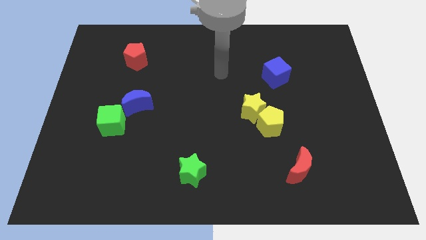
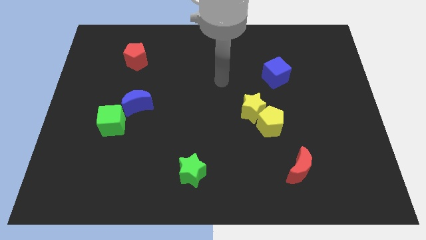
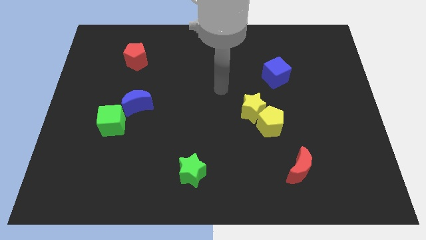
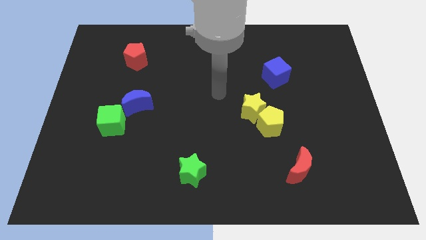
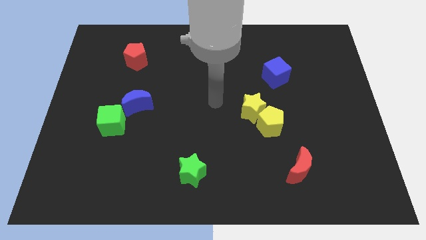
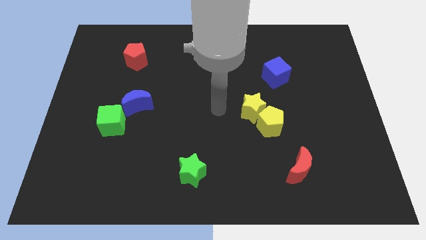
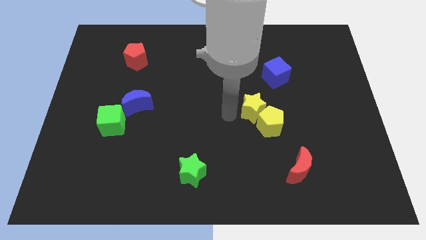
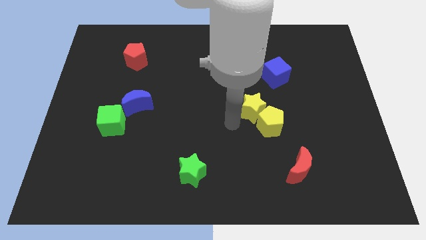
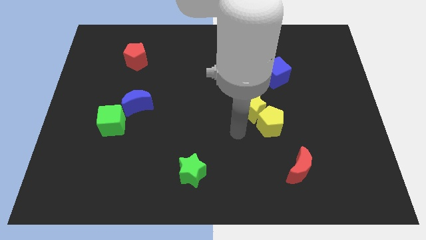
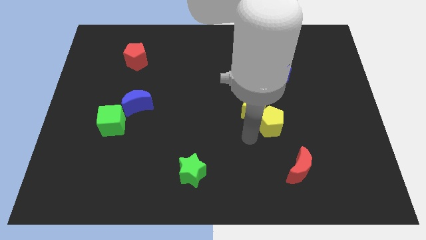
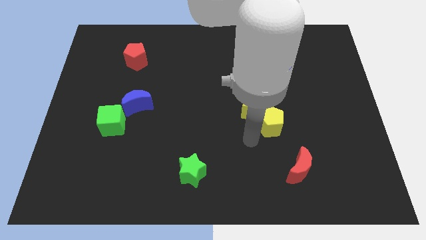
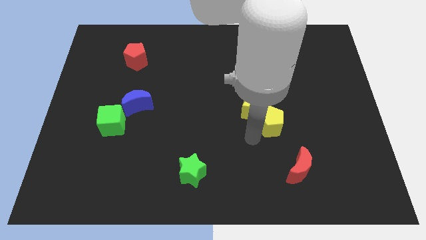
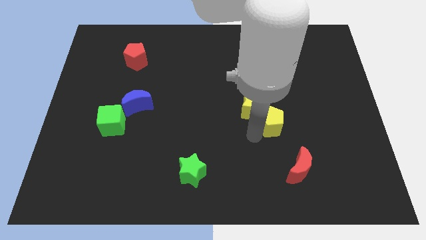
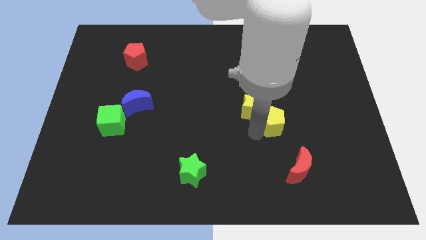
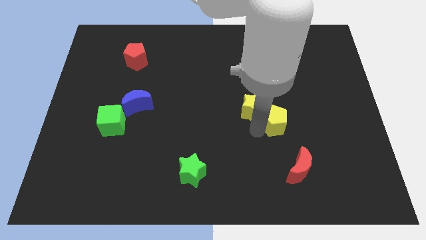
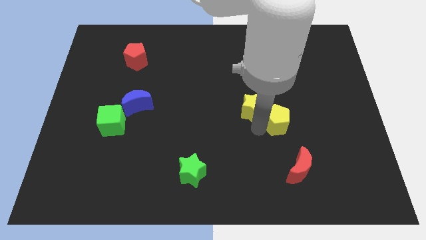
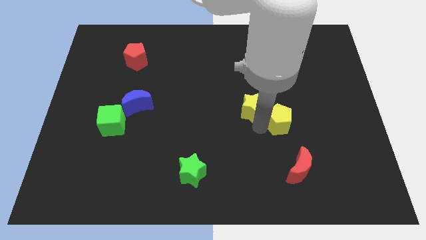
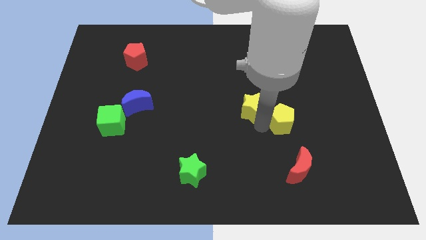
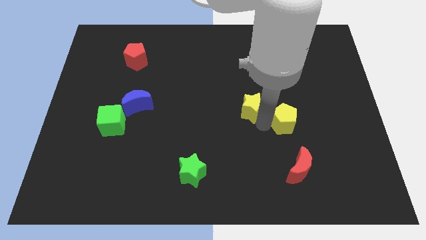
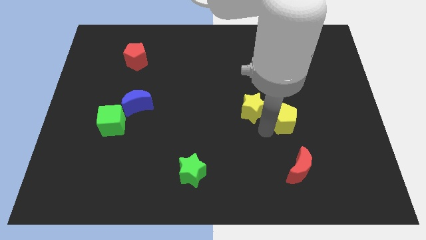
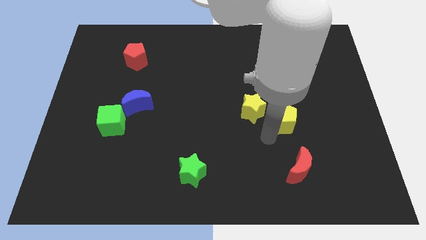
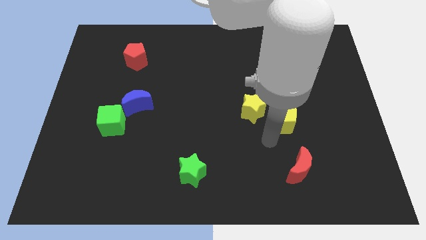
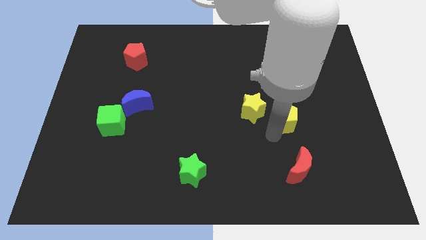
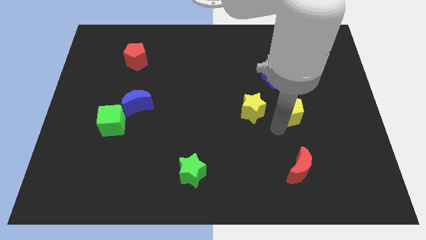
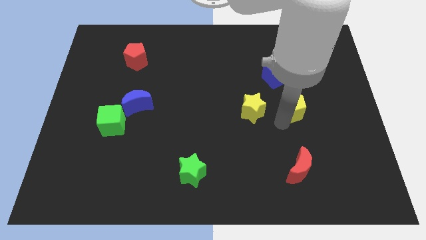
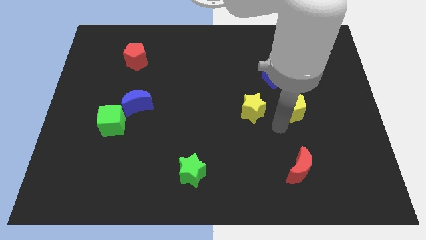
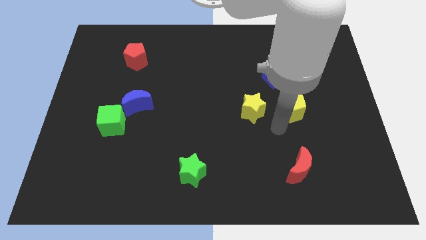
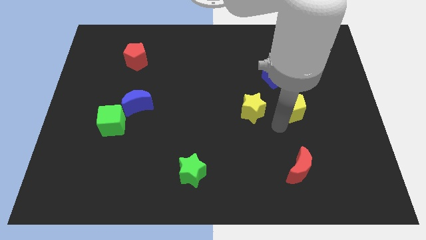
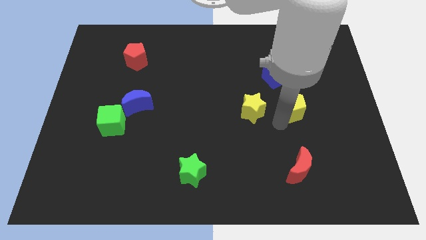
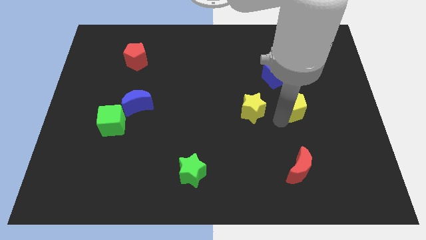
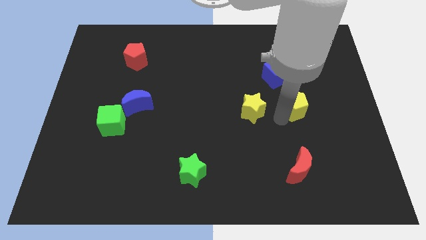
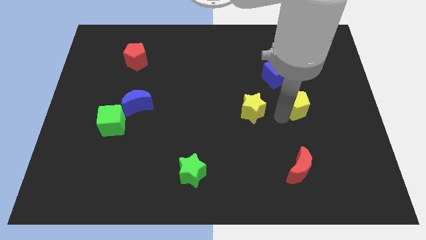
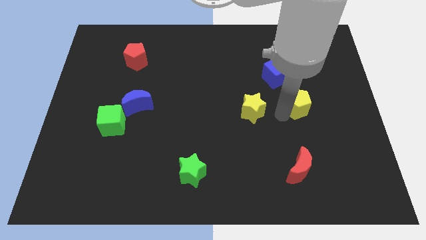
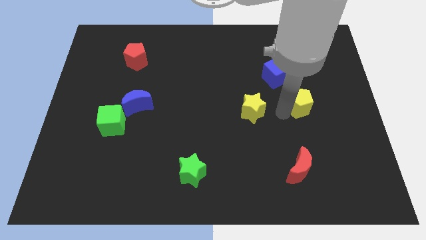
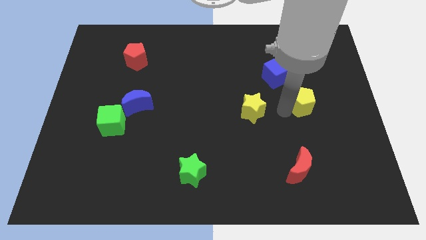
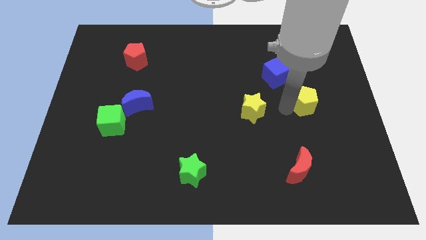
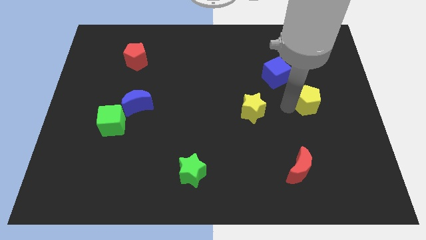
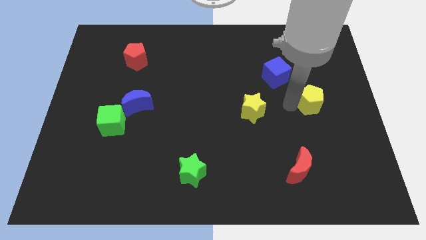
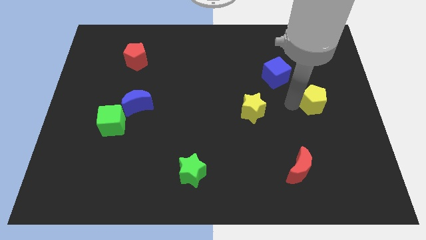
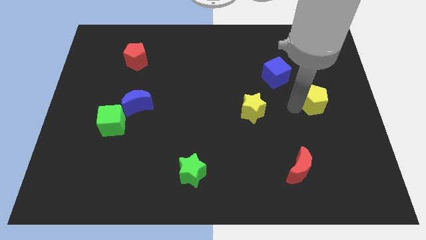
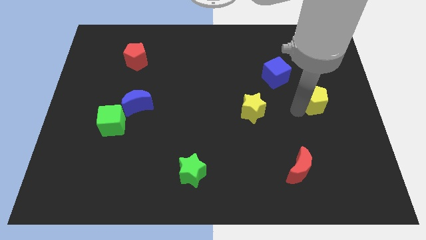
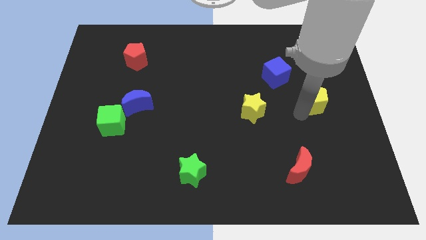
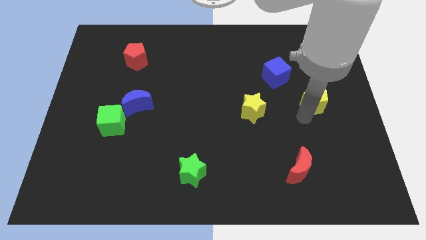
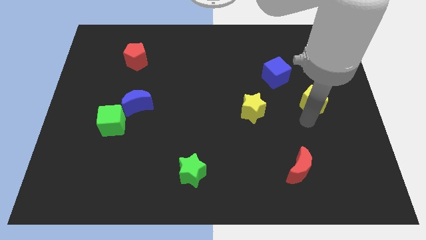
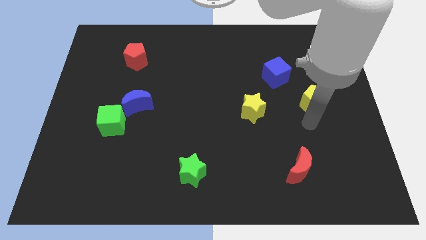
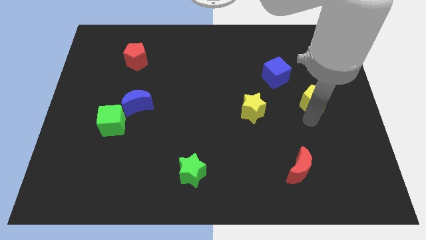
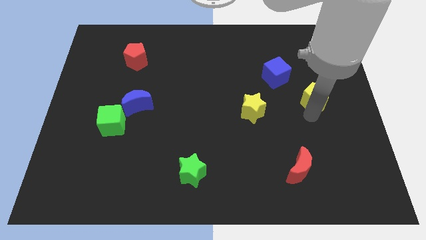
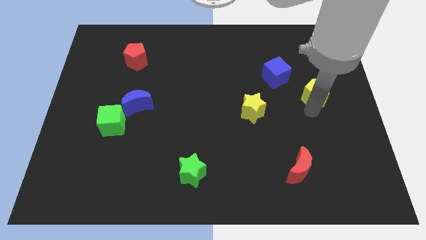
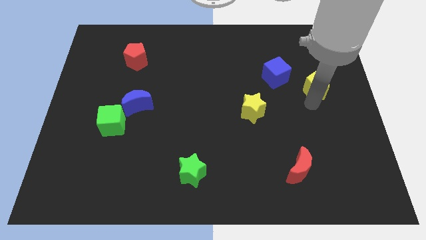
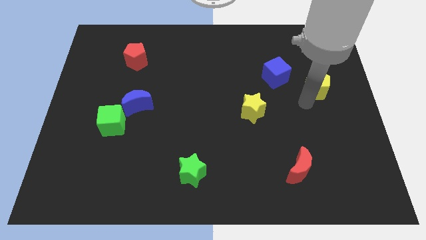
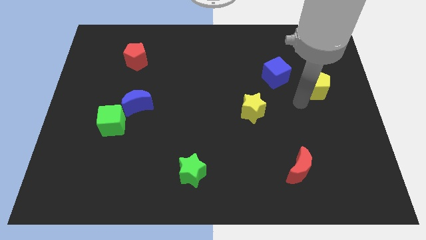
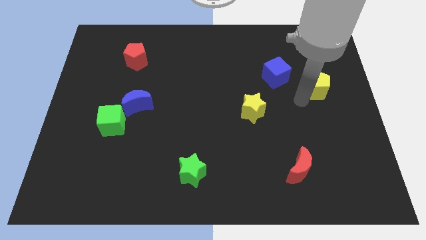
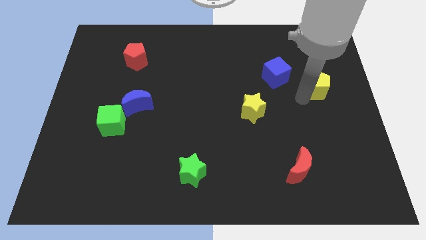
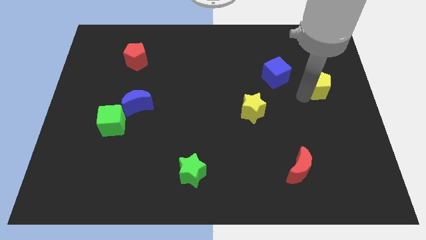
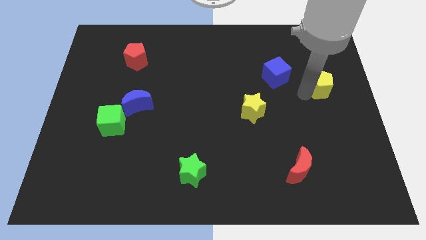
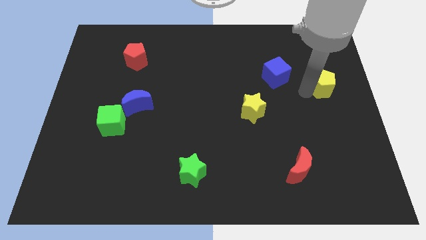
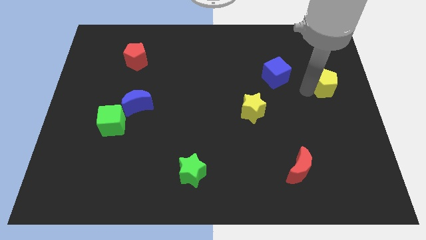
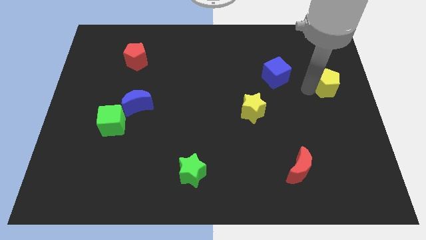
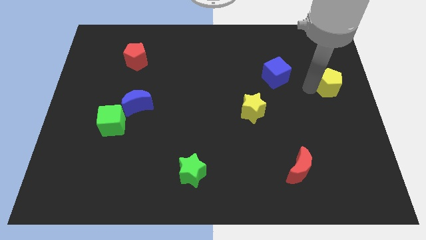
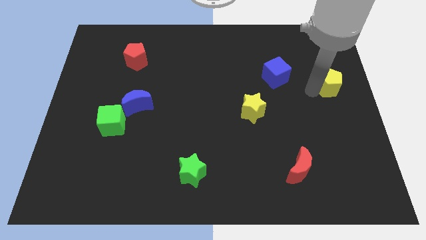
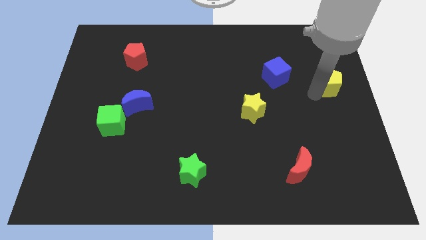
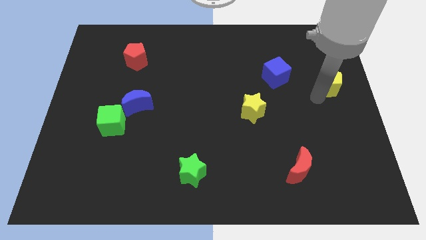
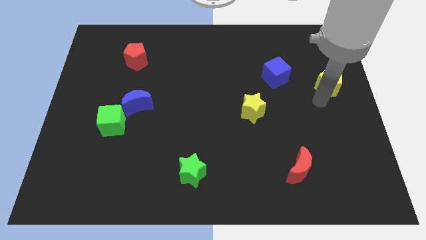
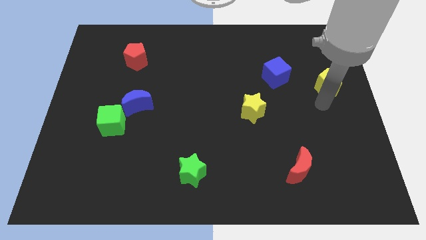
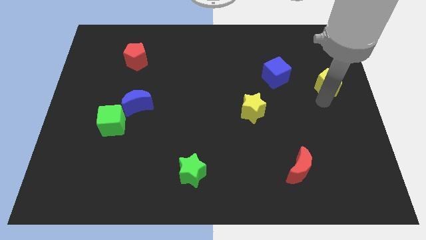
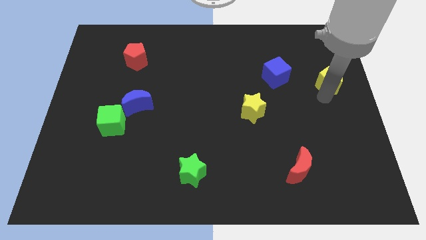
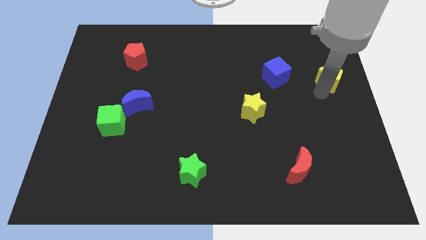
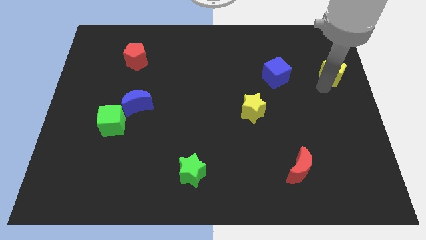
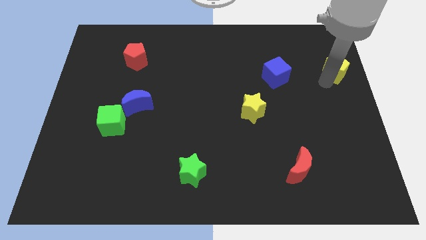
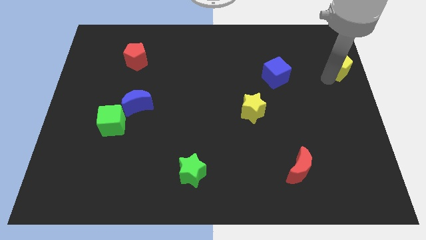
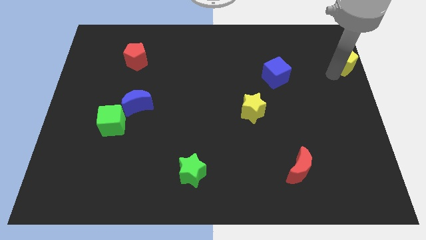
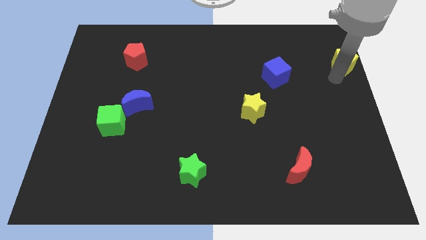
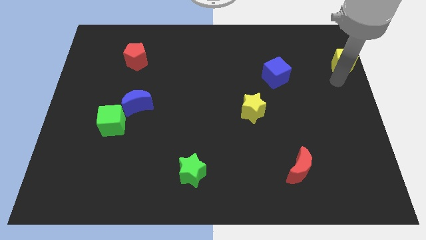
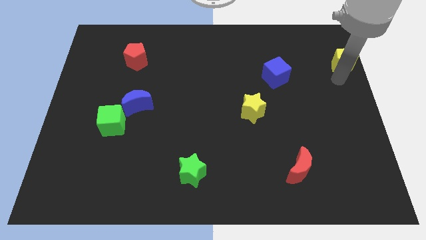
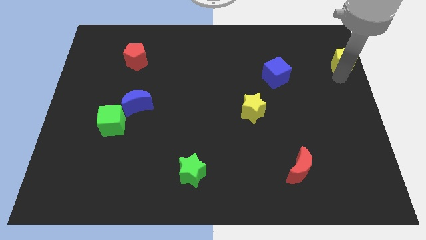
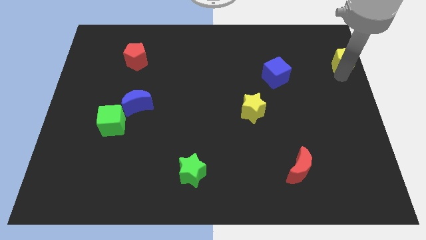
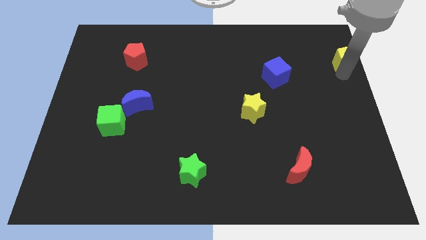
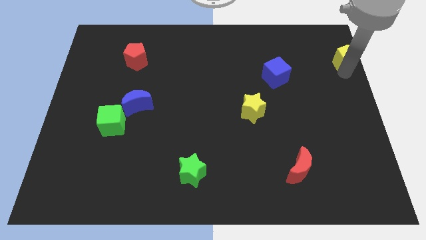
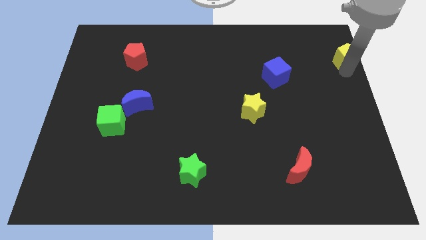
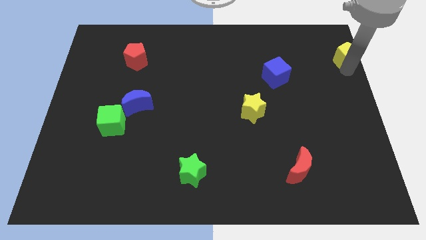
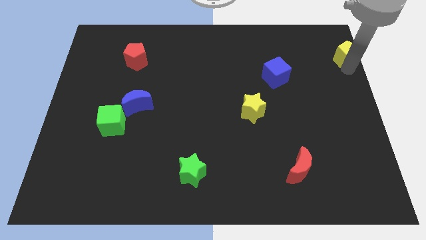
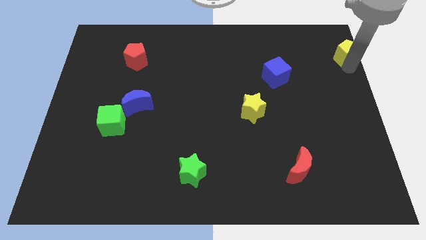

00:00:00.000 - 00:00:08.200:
push the yellow pentagon to the upper right corner
